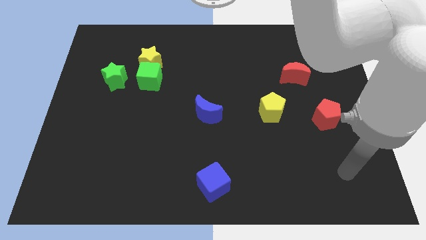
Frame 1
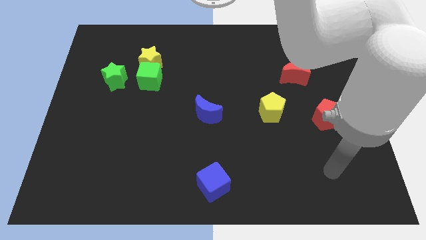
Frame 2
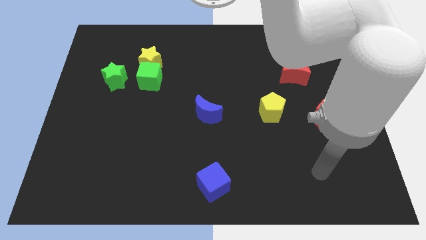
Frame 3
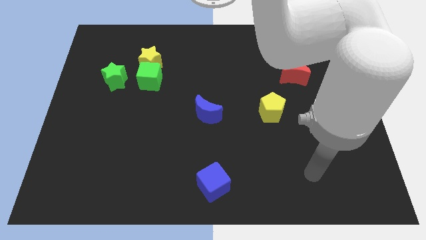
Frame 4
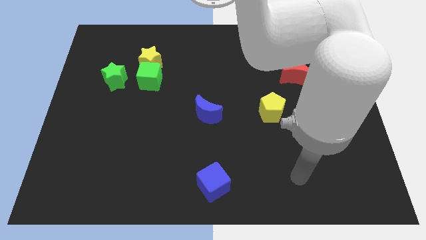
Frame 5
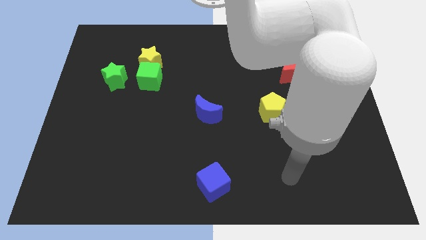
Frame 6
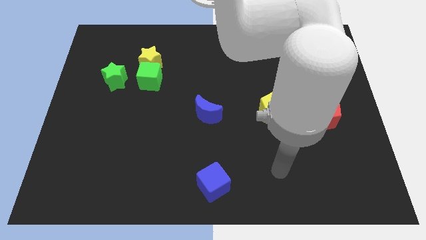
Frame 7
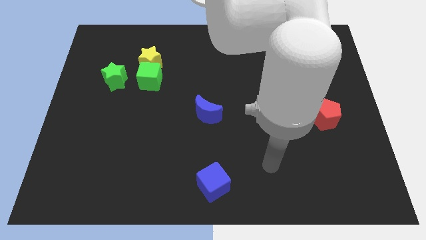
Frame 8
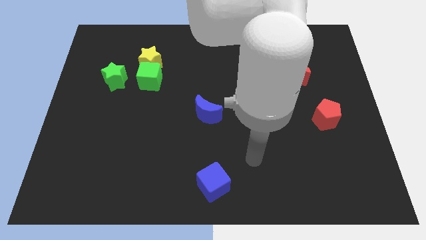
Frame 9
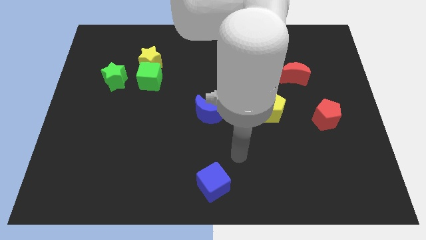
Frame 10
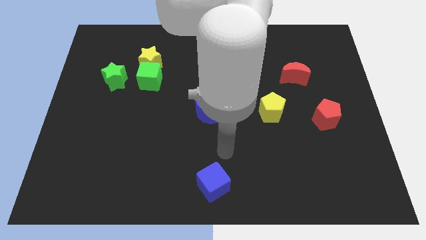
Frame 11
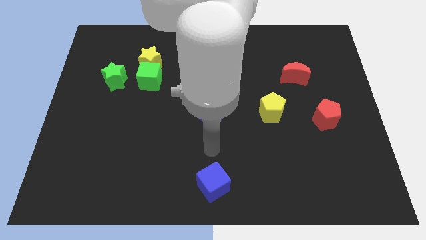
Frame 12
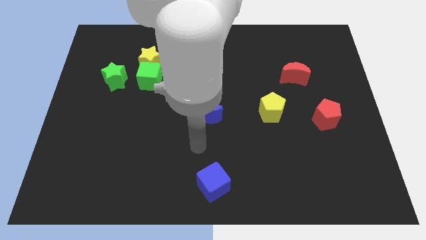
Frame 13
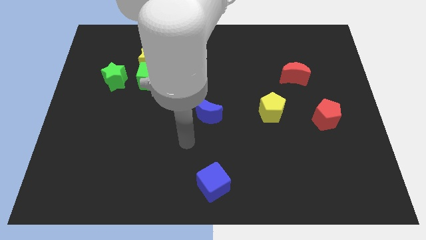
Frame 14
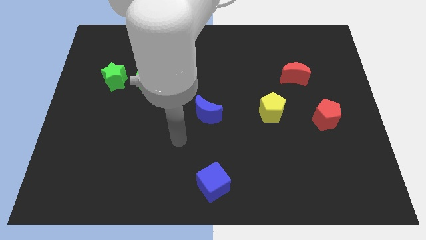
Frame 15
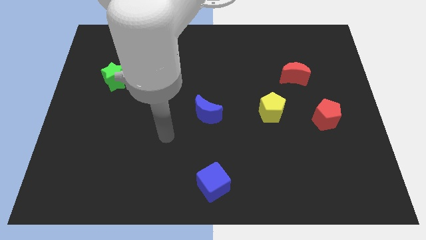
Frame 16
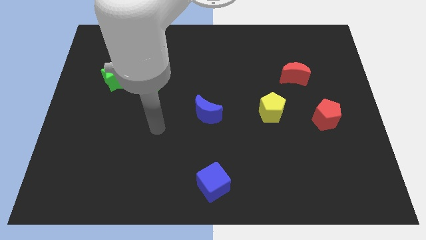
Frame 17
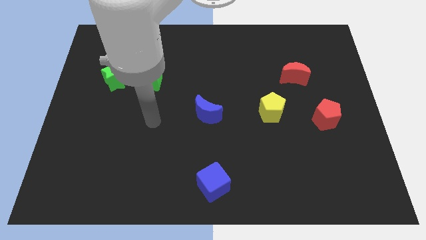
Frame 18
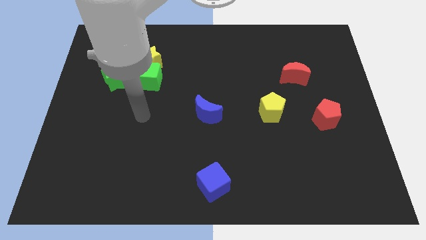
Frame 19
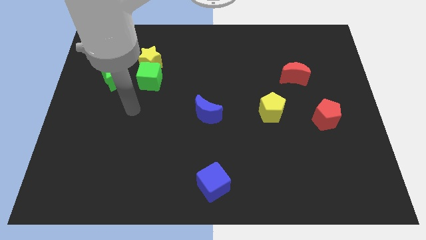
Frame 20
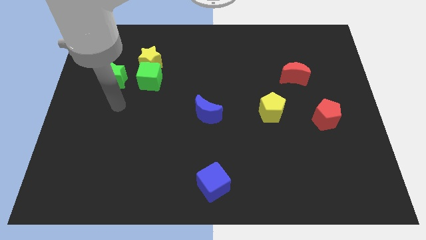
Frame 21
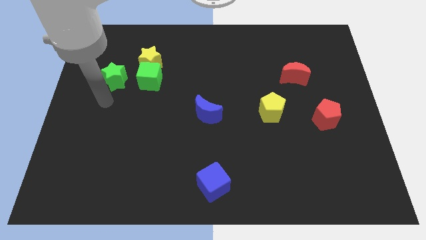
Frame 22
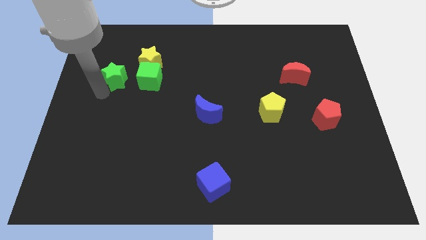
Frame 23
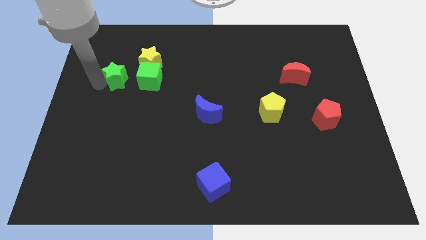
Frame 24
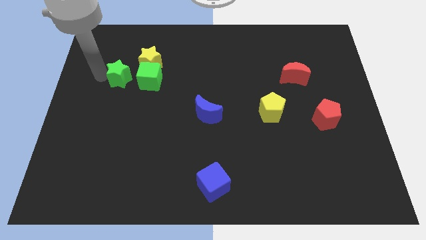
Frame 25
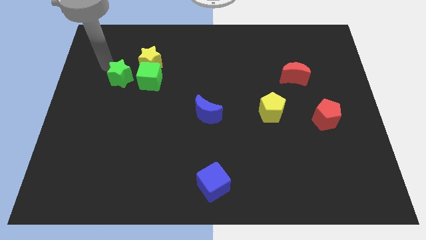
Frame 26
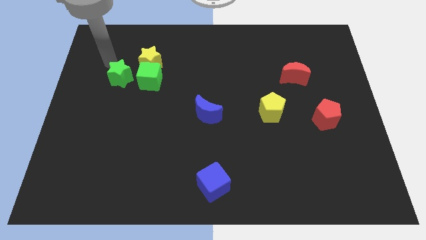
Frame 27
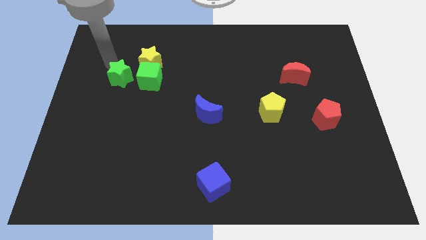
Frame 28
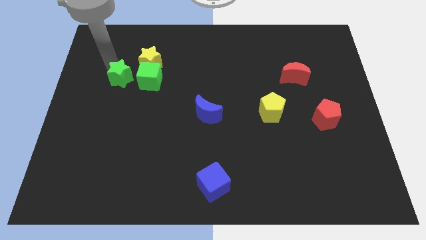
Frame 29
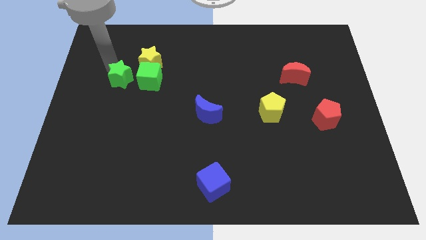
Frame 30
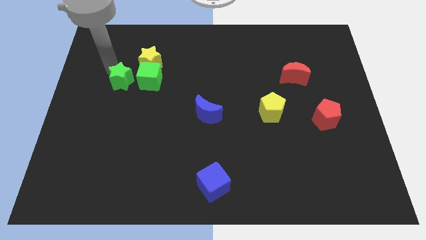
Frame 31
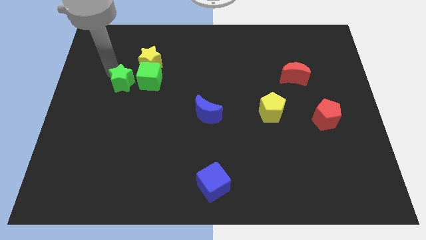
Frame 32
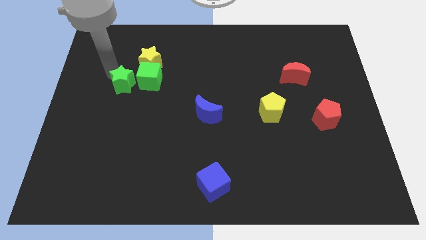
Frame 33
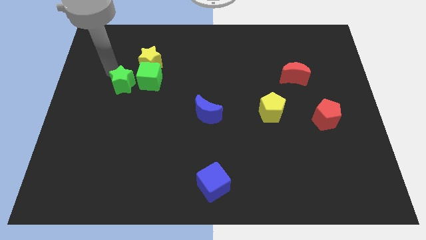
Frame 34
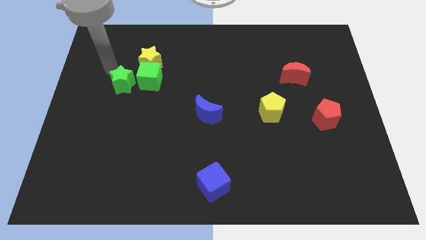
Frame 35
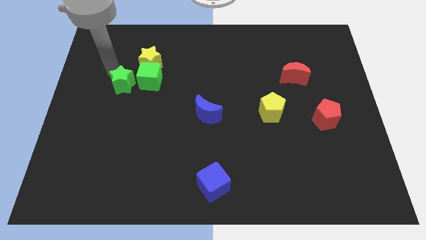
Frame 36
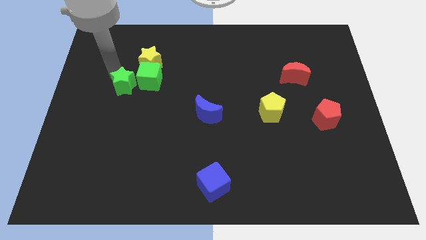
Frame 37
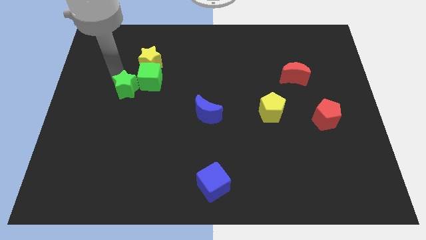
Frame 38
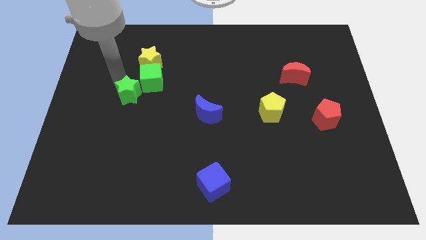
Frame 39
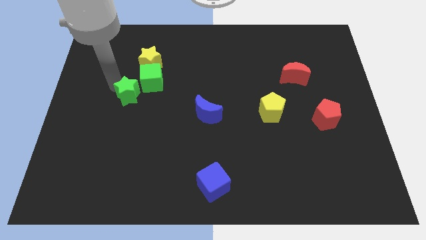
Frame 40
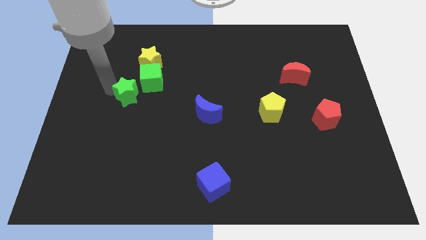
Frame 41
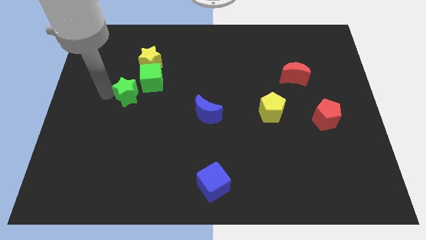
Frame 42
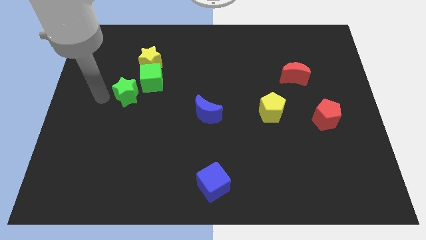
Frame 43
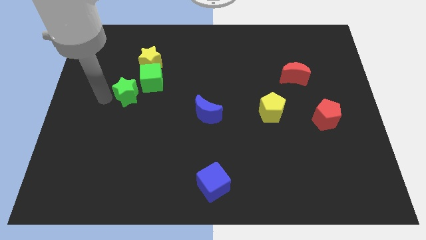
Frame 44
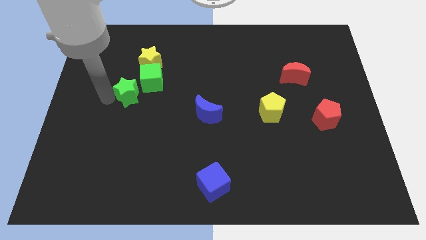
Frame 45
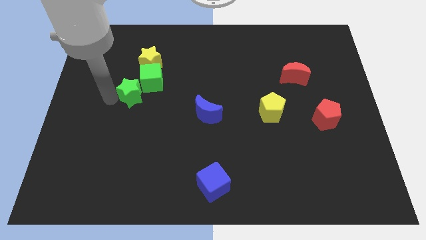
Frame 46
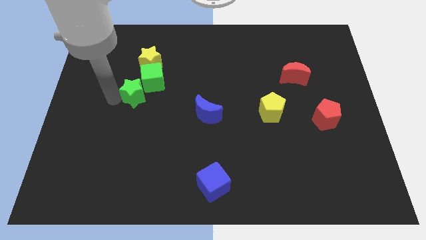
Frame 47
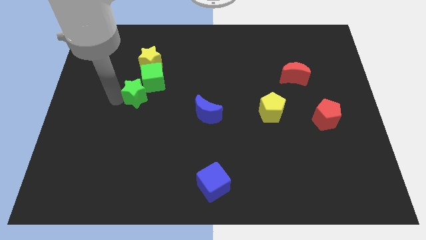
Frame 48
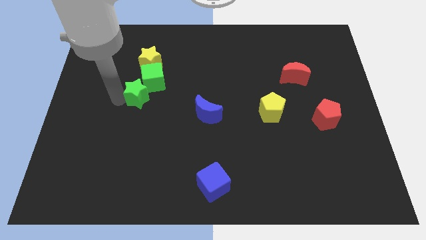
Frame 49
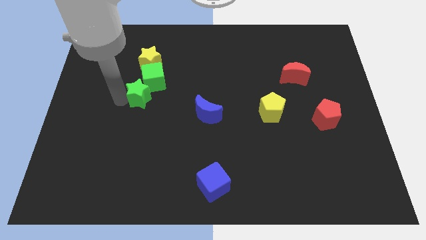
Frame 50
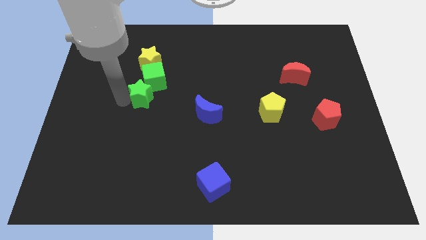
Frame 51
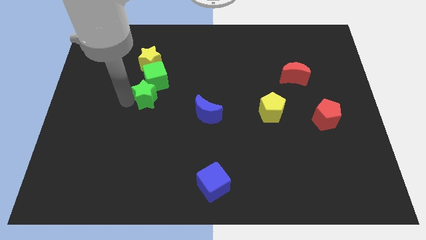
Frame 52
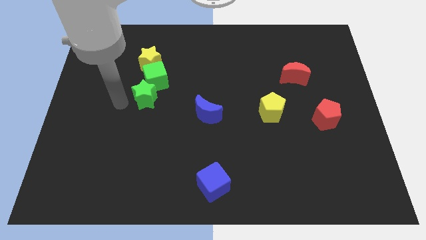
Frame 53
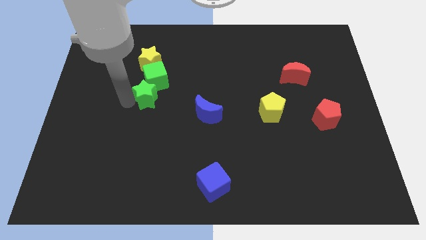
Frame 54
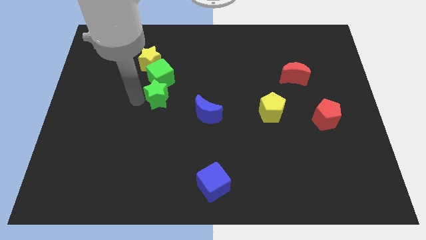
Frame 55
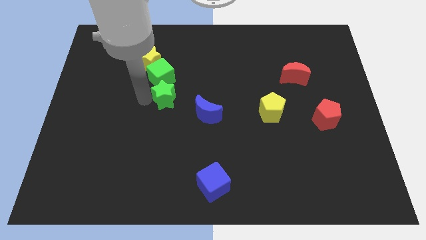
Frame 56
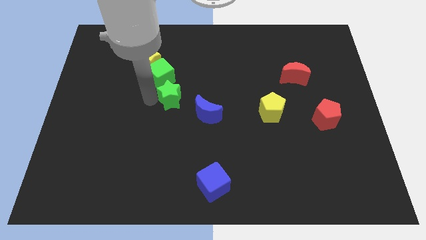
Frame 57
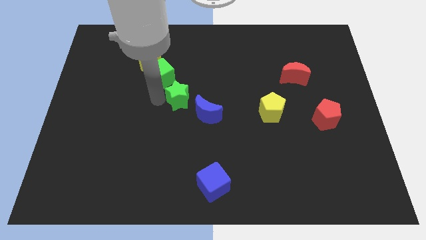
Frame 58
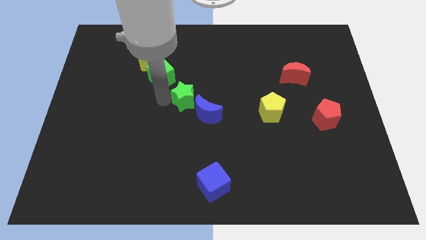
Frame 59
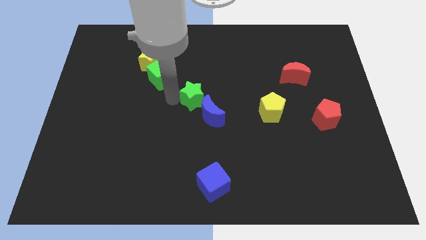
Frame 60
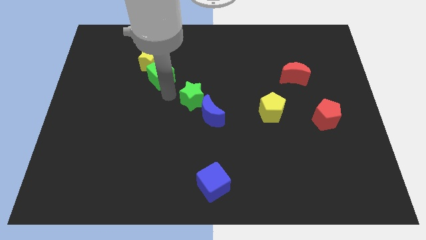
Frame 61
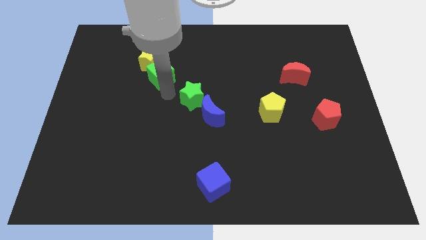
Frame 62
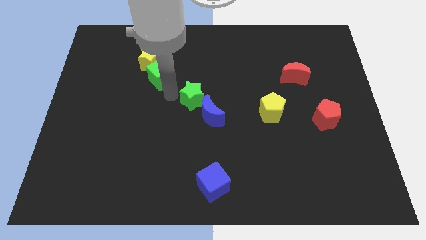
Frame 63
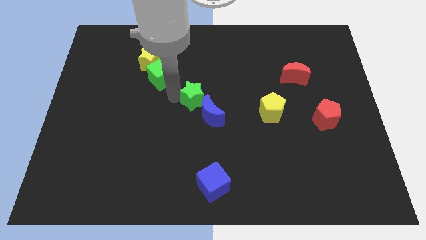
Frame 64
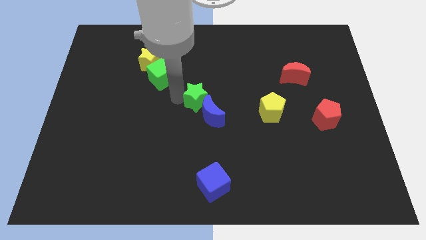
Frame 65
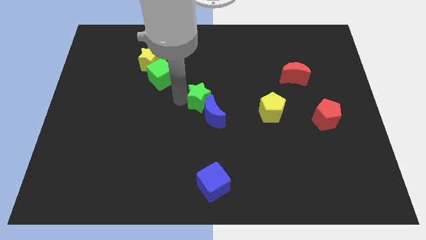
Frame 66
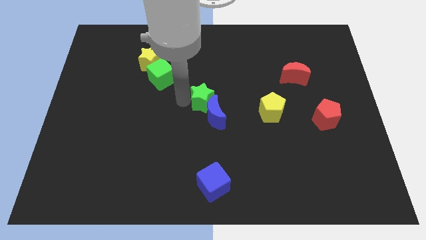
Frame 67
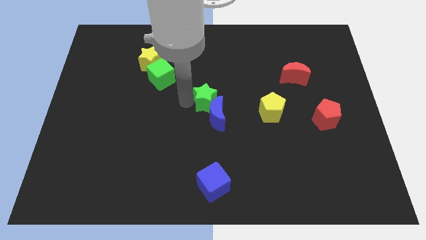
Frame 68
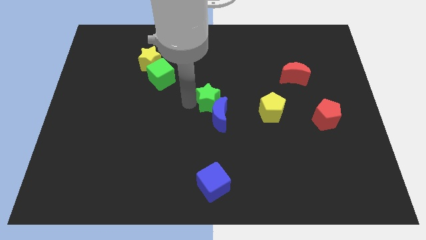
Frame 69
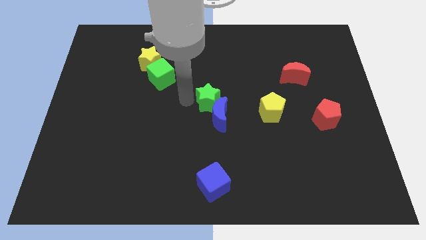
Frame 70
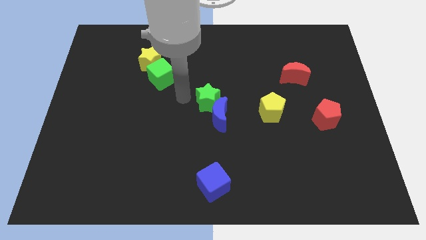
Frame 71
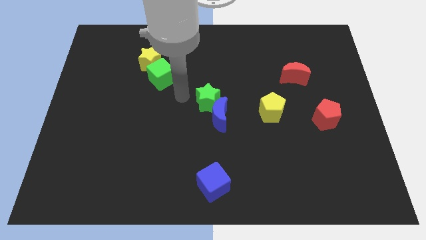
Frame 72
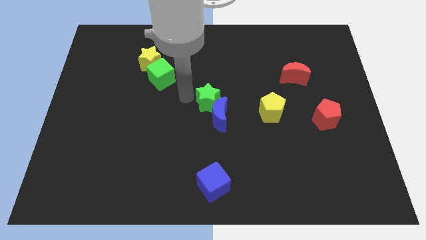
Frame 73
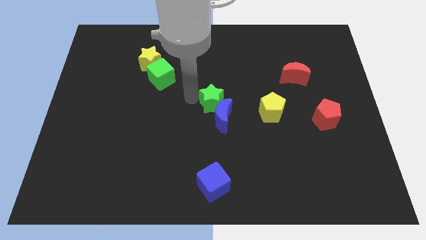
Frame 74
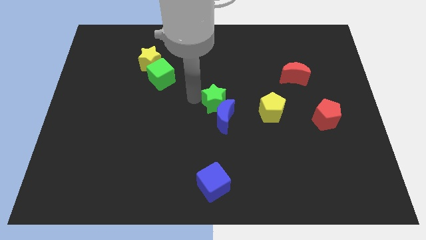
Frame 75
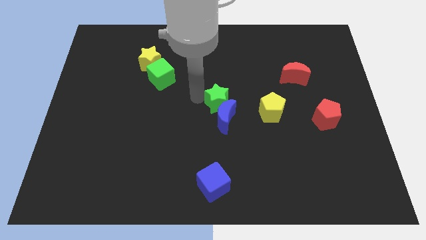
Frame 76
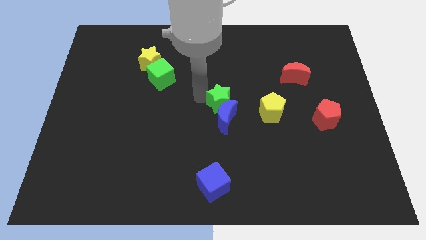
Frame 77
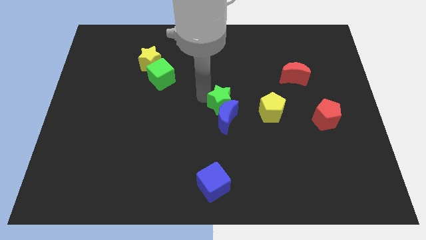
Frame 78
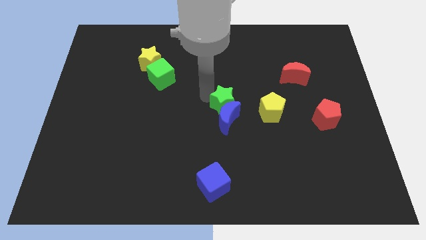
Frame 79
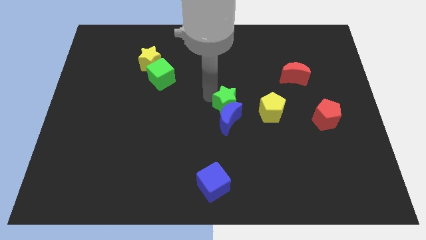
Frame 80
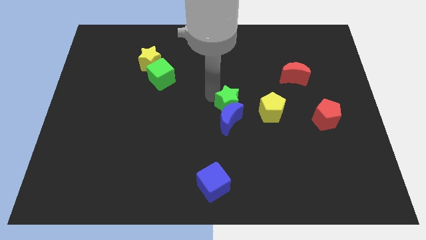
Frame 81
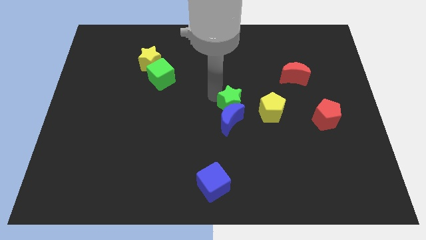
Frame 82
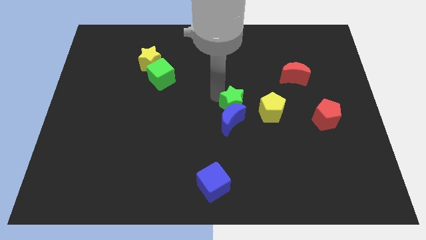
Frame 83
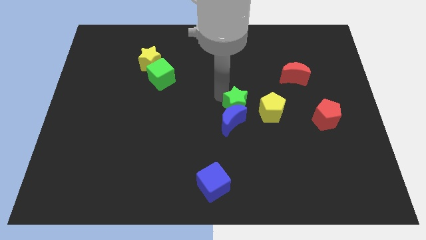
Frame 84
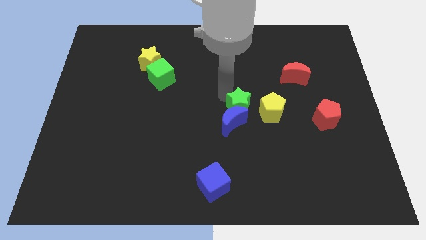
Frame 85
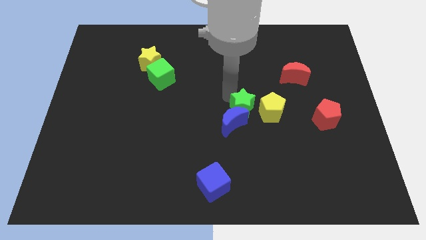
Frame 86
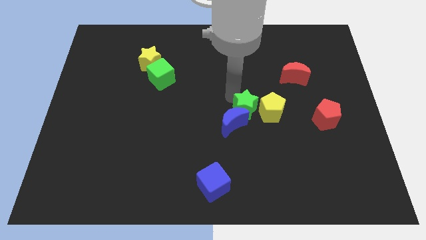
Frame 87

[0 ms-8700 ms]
slide the green star next to the yellow pentagon
